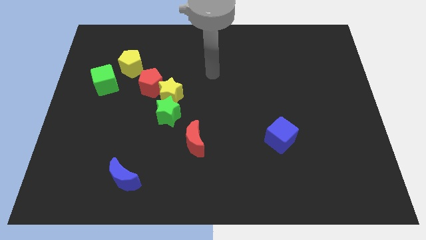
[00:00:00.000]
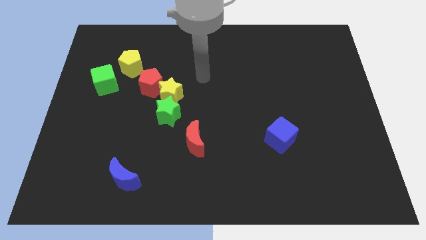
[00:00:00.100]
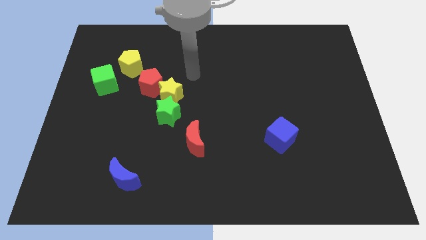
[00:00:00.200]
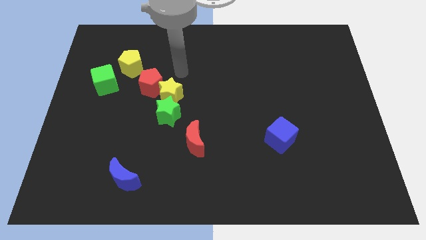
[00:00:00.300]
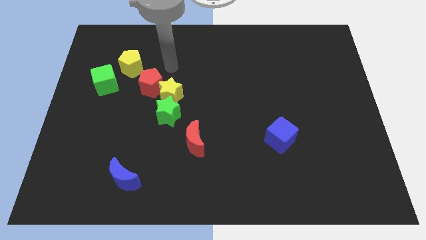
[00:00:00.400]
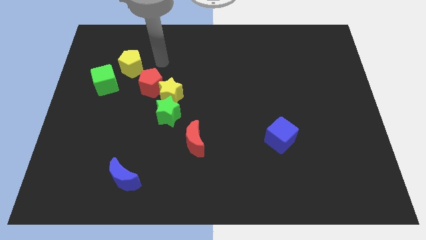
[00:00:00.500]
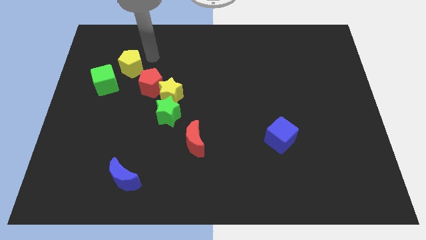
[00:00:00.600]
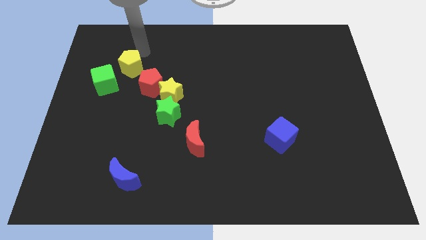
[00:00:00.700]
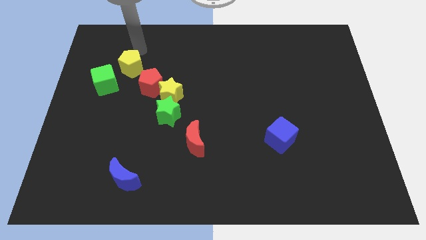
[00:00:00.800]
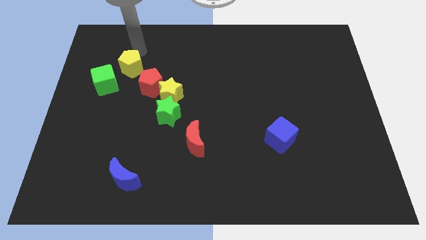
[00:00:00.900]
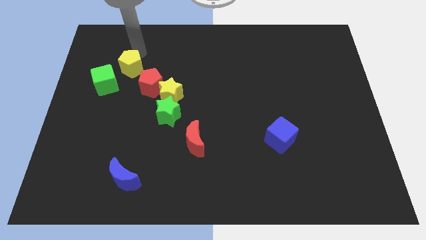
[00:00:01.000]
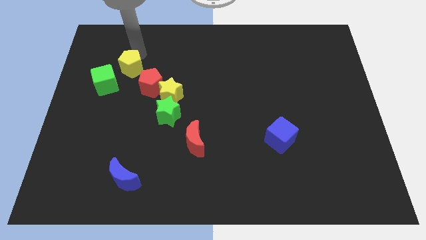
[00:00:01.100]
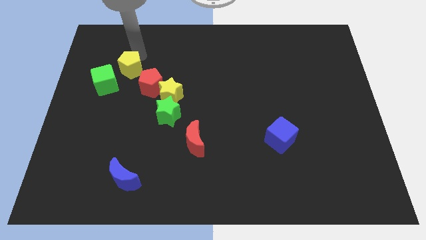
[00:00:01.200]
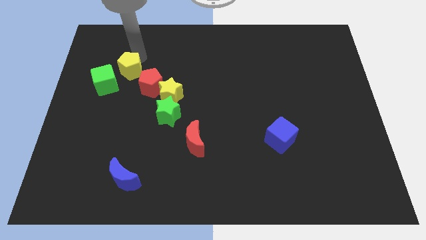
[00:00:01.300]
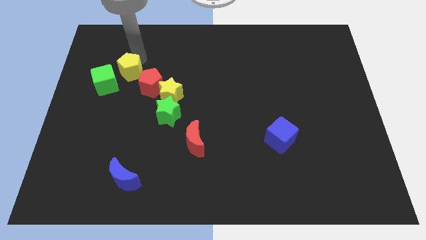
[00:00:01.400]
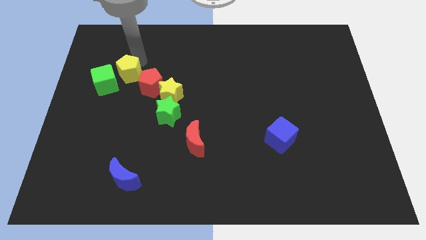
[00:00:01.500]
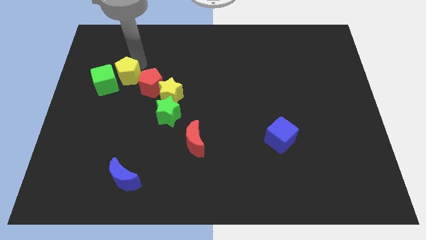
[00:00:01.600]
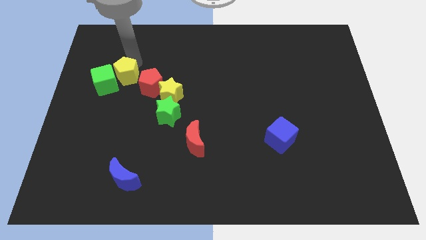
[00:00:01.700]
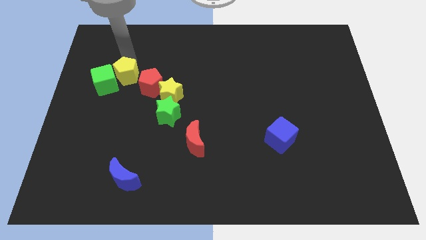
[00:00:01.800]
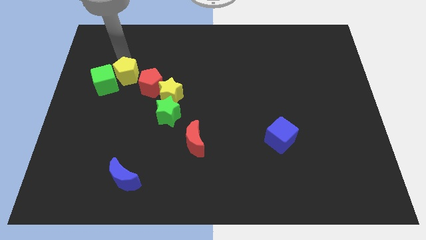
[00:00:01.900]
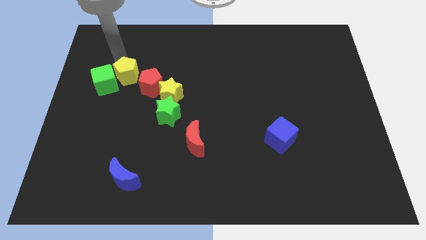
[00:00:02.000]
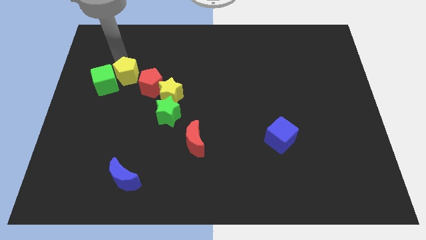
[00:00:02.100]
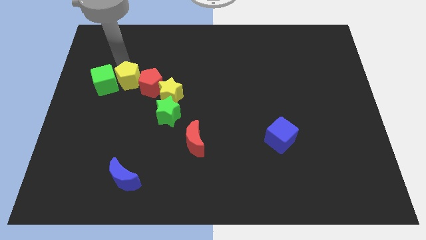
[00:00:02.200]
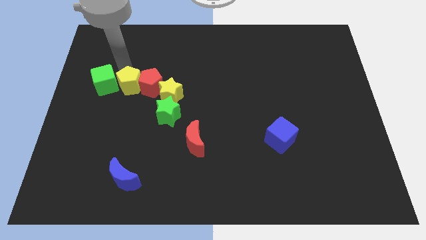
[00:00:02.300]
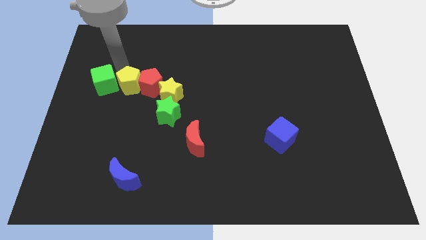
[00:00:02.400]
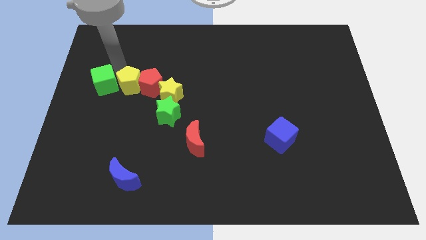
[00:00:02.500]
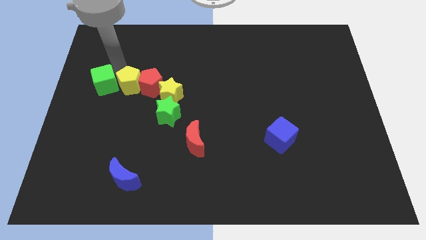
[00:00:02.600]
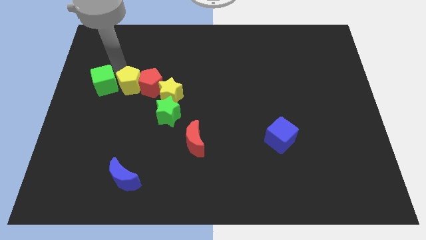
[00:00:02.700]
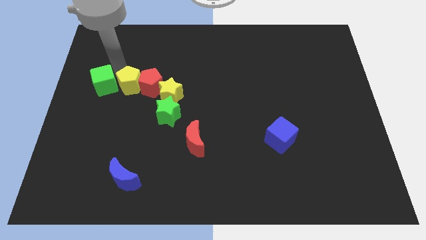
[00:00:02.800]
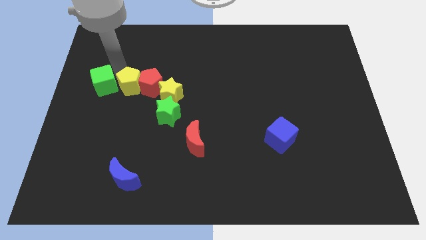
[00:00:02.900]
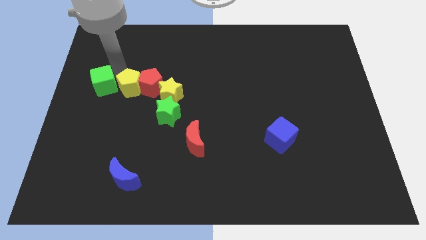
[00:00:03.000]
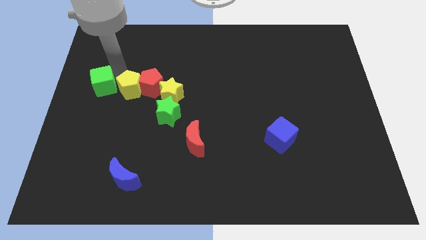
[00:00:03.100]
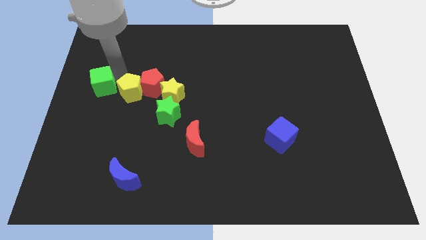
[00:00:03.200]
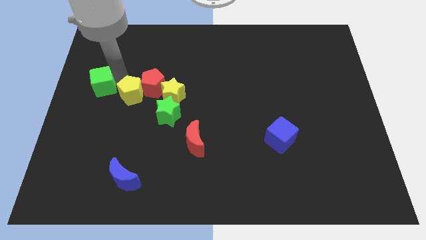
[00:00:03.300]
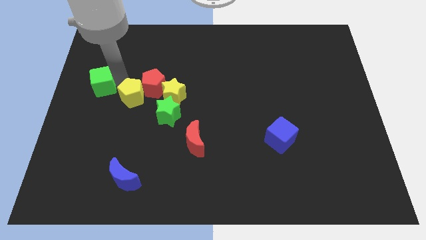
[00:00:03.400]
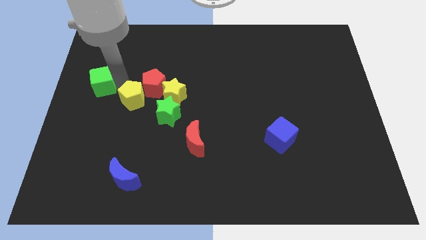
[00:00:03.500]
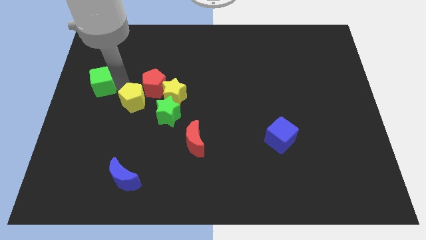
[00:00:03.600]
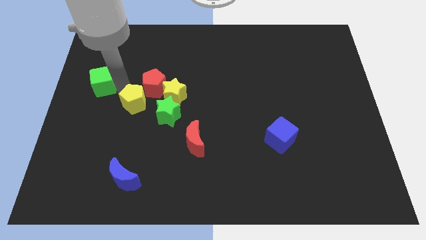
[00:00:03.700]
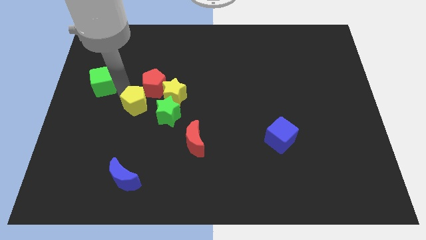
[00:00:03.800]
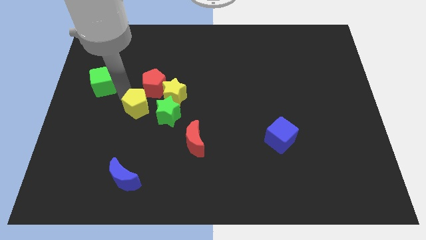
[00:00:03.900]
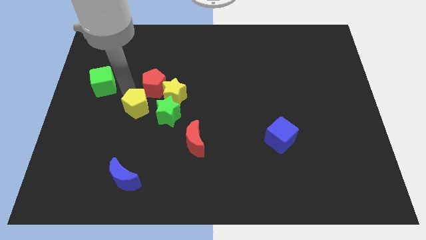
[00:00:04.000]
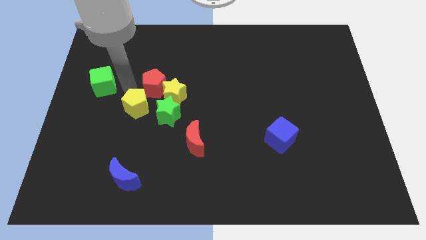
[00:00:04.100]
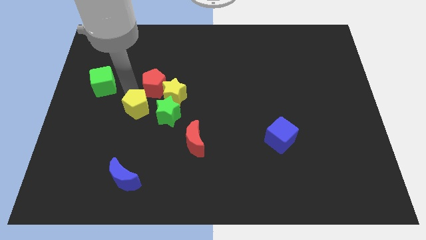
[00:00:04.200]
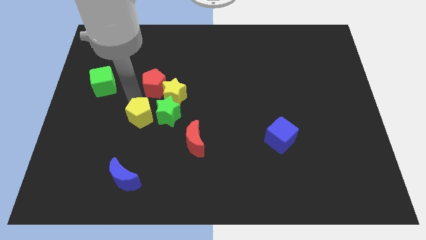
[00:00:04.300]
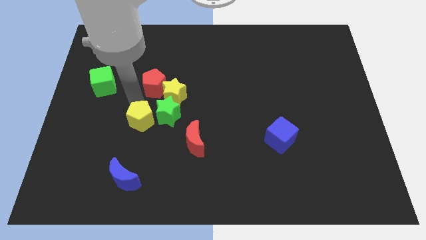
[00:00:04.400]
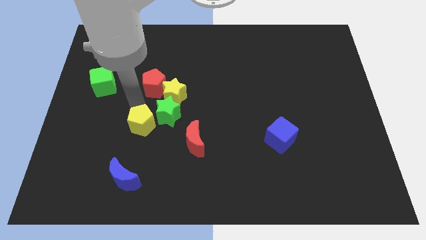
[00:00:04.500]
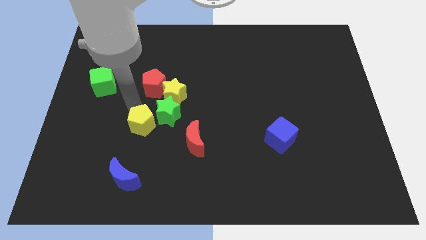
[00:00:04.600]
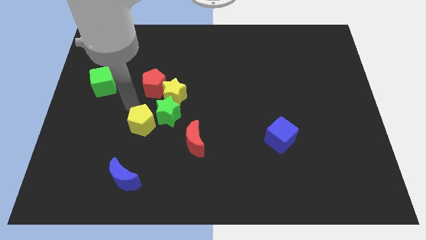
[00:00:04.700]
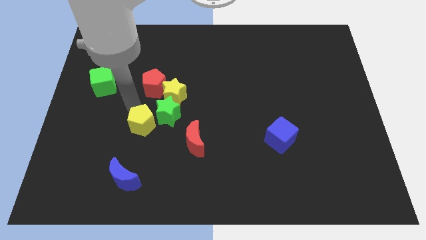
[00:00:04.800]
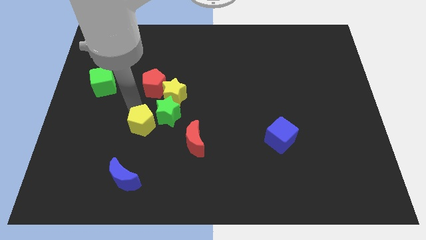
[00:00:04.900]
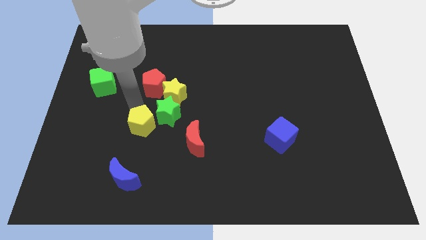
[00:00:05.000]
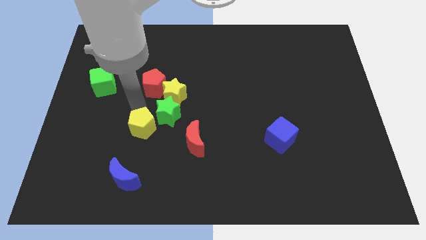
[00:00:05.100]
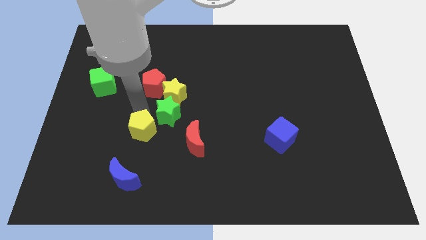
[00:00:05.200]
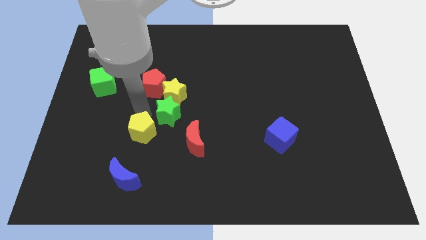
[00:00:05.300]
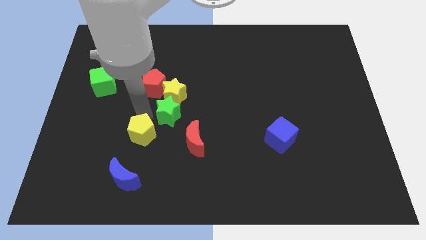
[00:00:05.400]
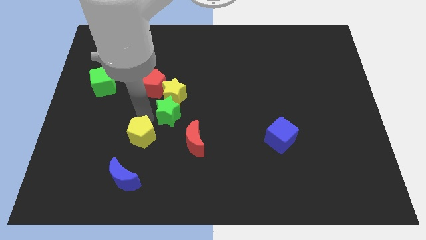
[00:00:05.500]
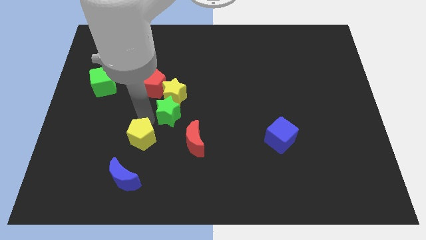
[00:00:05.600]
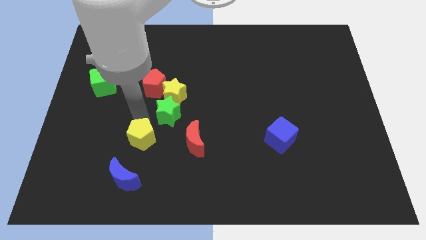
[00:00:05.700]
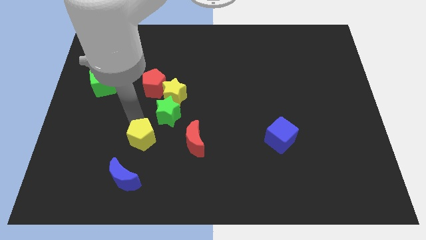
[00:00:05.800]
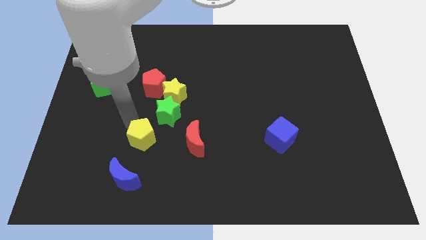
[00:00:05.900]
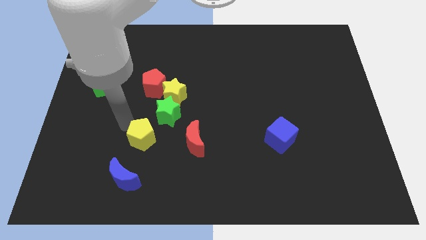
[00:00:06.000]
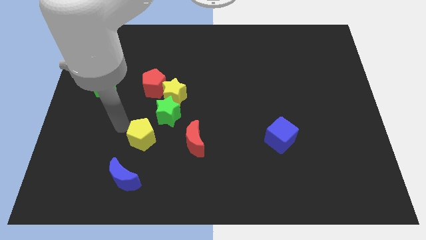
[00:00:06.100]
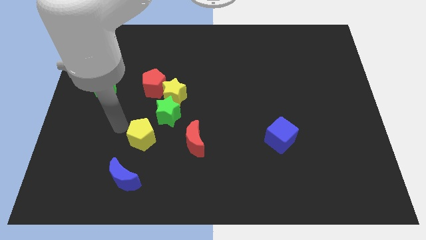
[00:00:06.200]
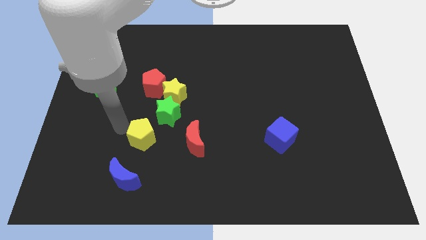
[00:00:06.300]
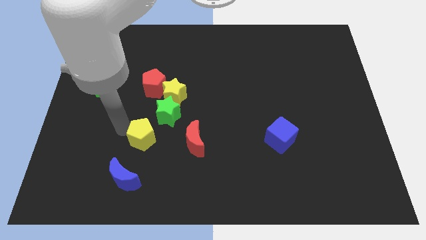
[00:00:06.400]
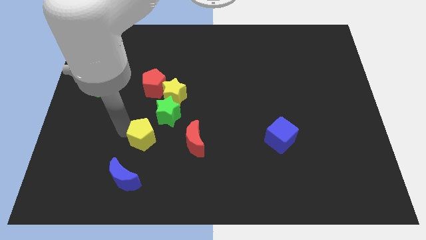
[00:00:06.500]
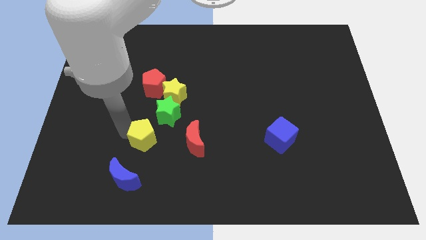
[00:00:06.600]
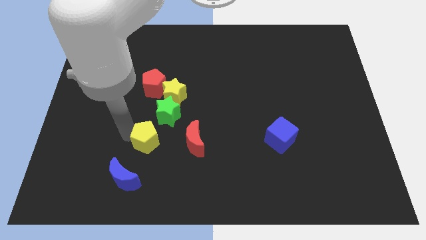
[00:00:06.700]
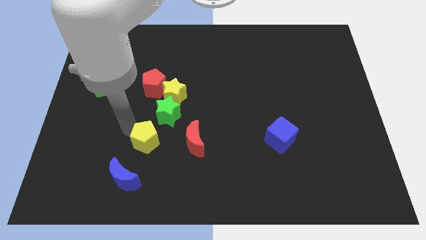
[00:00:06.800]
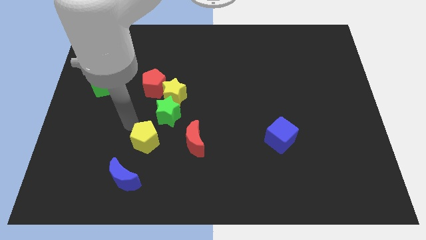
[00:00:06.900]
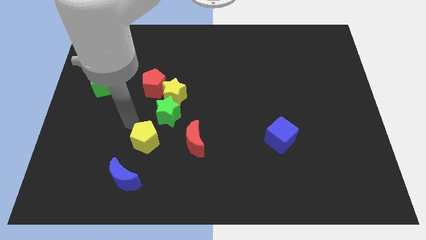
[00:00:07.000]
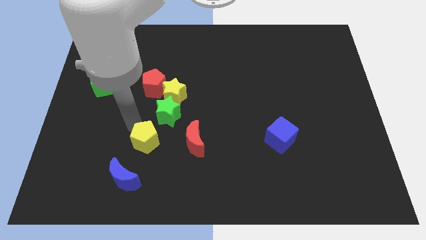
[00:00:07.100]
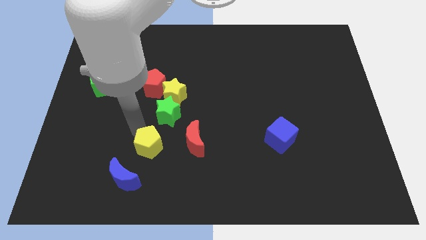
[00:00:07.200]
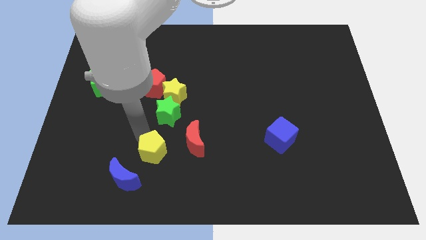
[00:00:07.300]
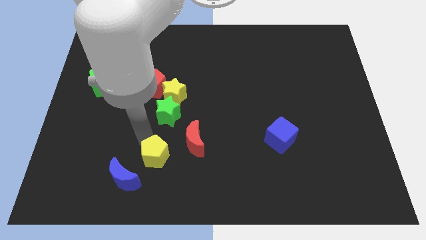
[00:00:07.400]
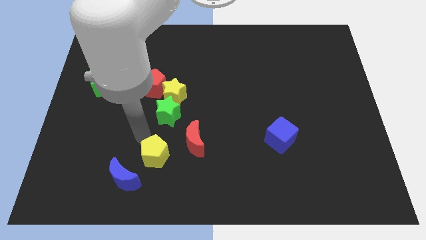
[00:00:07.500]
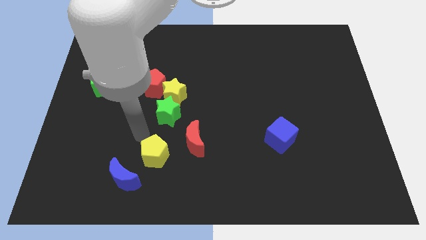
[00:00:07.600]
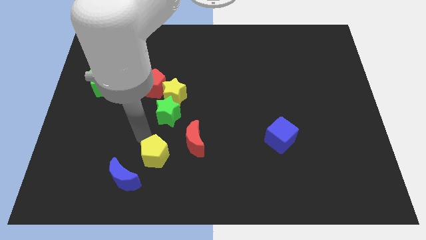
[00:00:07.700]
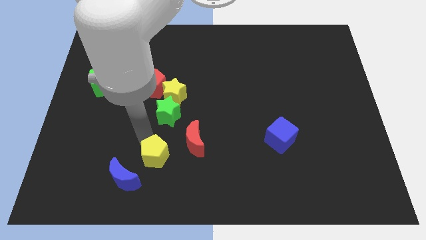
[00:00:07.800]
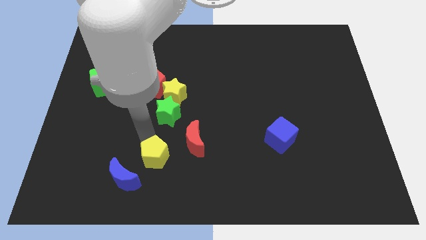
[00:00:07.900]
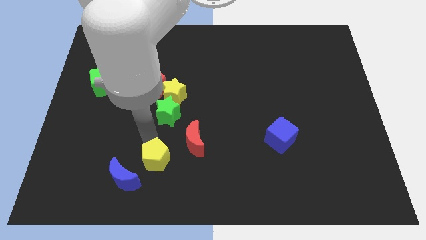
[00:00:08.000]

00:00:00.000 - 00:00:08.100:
slide the yellow pentagon to the right side of the blue moon
